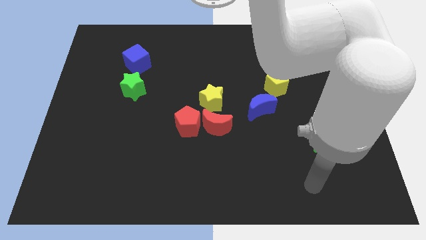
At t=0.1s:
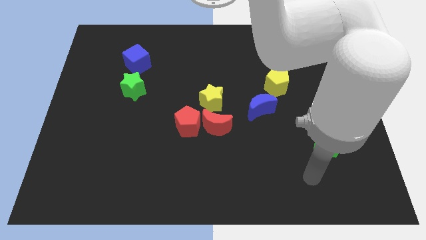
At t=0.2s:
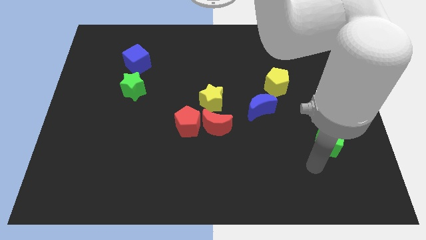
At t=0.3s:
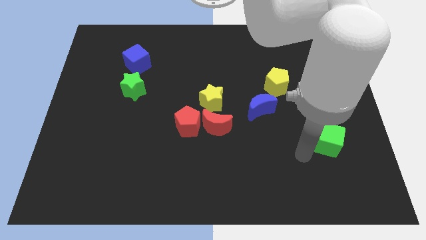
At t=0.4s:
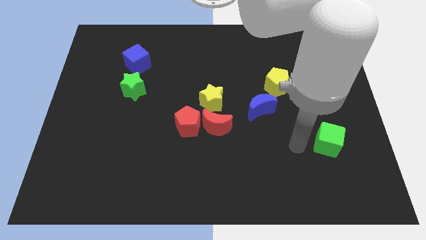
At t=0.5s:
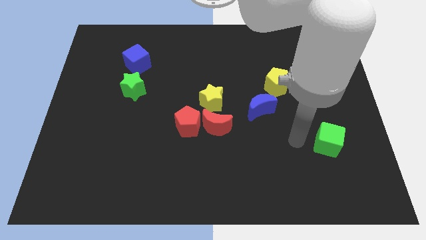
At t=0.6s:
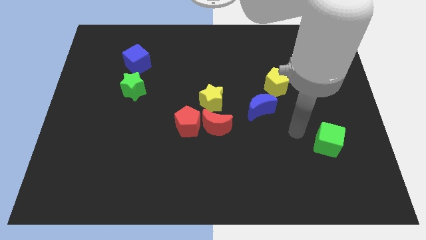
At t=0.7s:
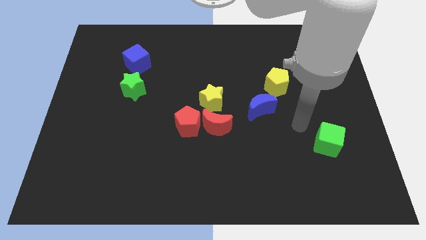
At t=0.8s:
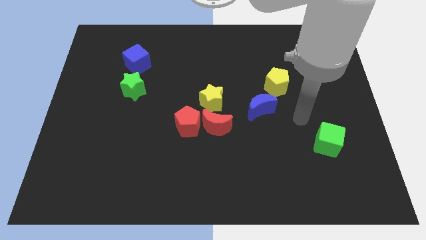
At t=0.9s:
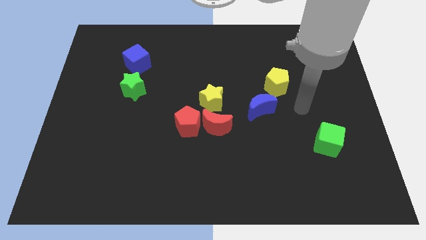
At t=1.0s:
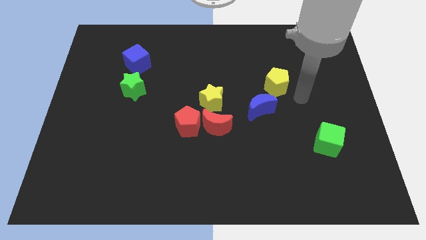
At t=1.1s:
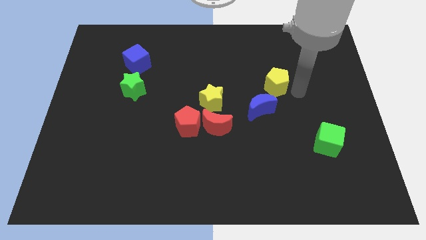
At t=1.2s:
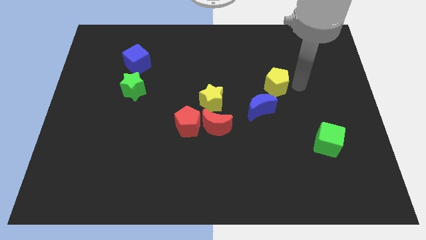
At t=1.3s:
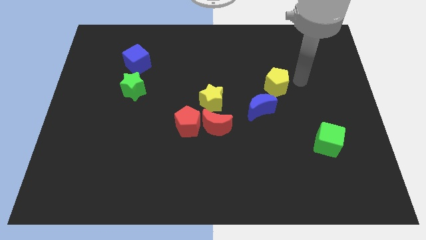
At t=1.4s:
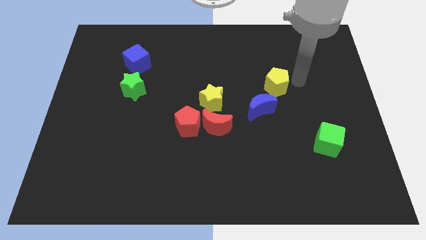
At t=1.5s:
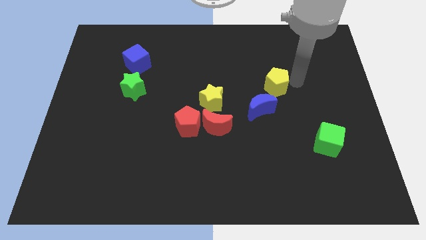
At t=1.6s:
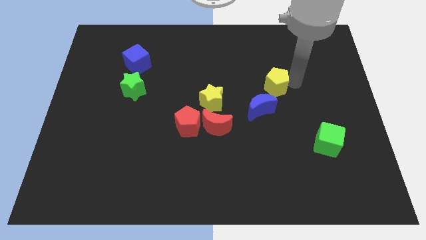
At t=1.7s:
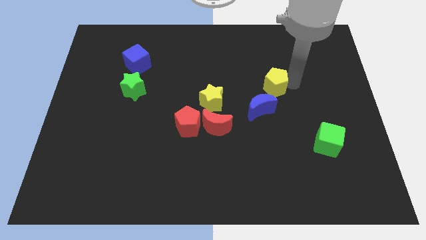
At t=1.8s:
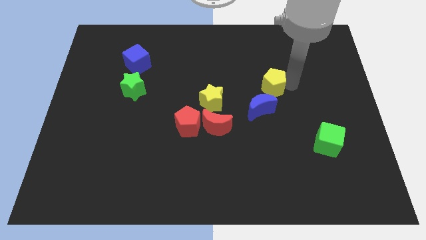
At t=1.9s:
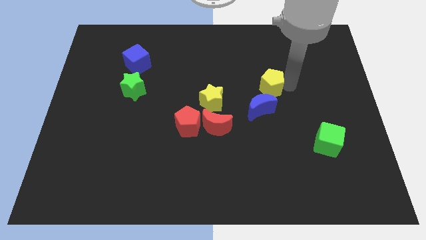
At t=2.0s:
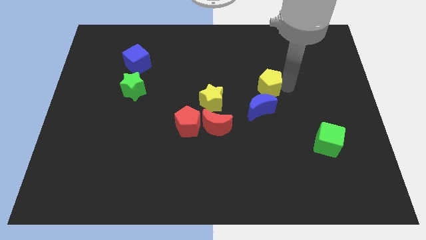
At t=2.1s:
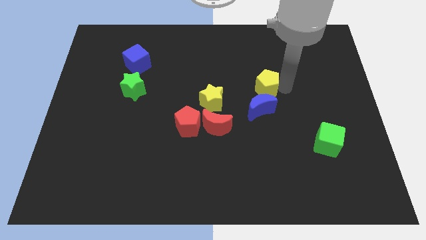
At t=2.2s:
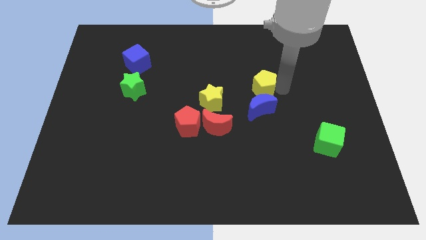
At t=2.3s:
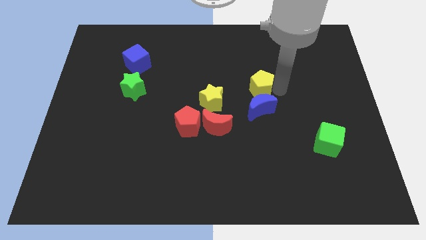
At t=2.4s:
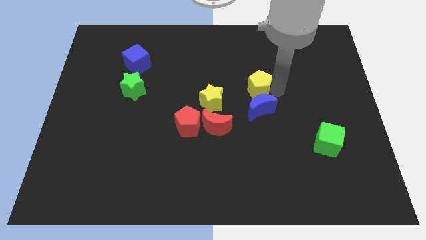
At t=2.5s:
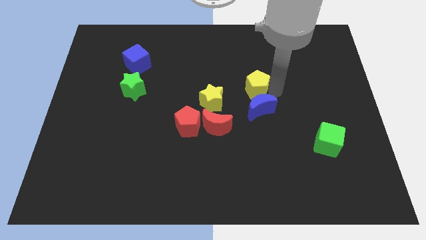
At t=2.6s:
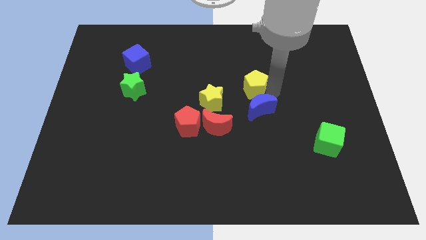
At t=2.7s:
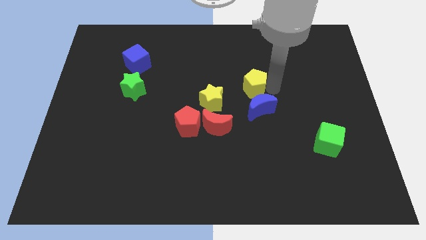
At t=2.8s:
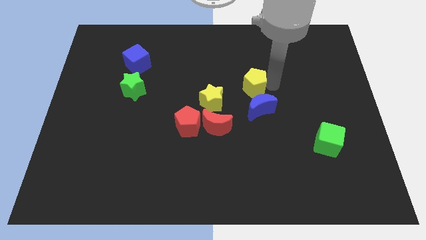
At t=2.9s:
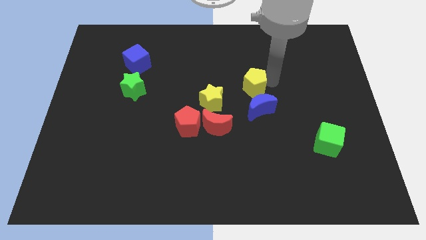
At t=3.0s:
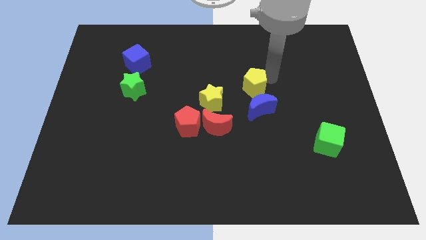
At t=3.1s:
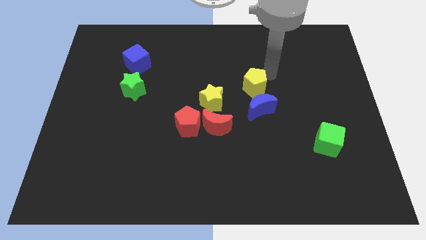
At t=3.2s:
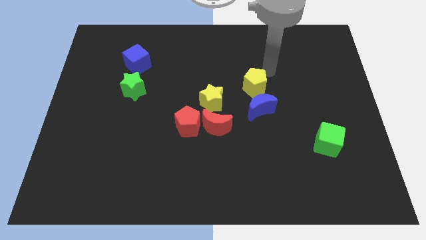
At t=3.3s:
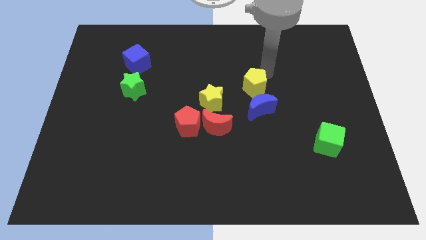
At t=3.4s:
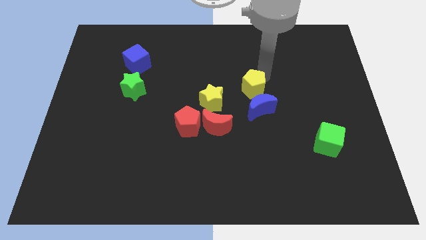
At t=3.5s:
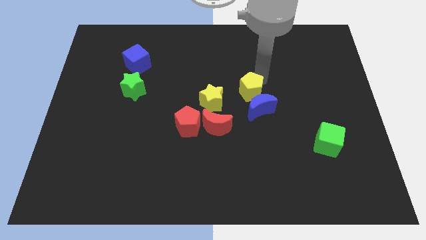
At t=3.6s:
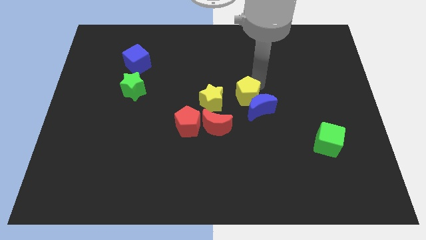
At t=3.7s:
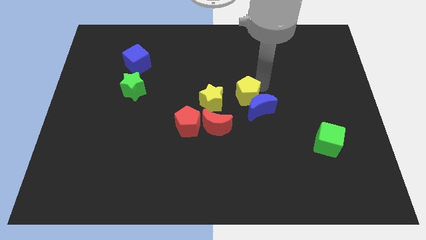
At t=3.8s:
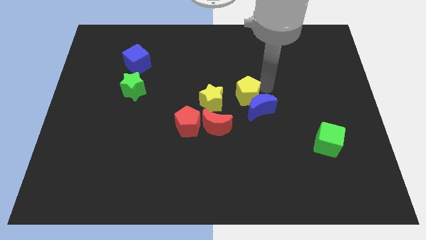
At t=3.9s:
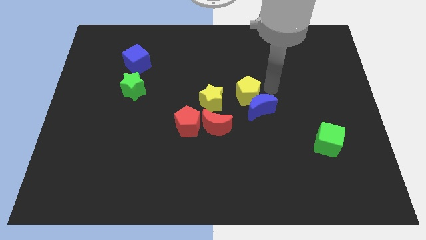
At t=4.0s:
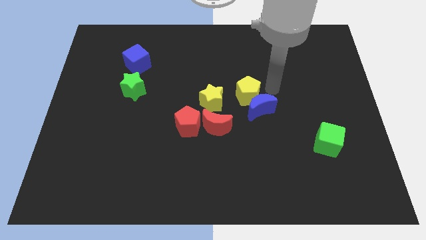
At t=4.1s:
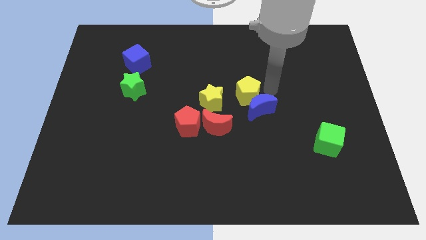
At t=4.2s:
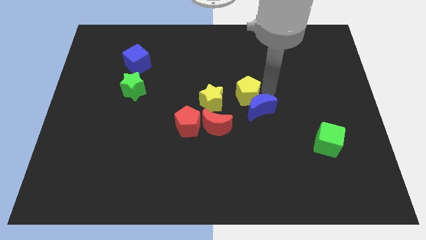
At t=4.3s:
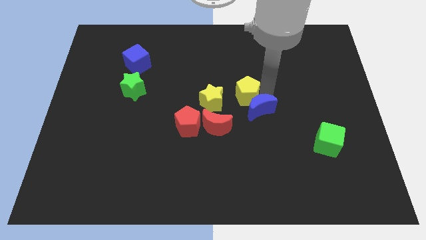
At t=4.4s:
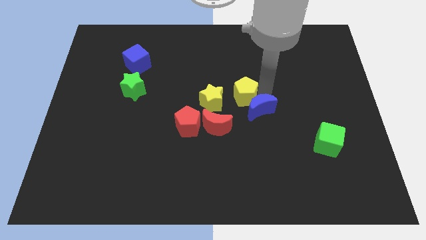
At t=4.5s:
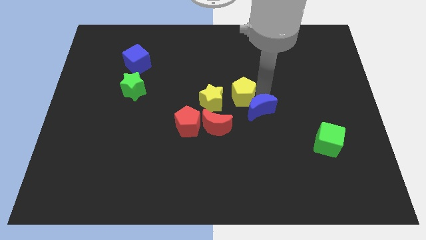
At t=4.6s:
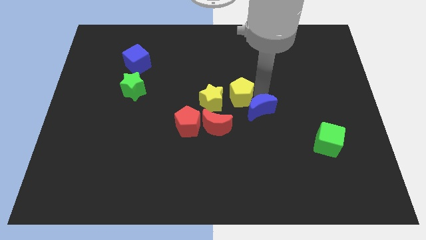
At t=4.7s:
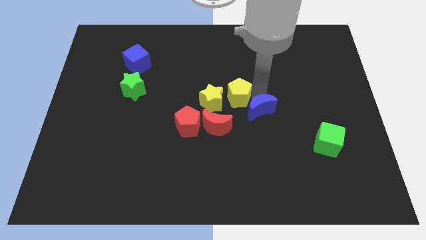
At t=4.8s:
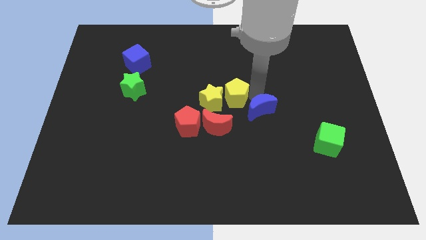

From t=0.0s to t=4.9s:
push the yellow pentagon next to the yellow star

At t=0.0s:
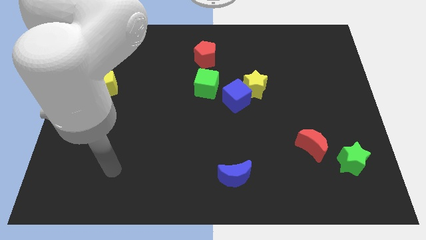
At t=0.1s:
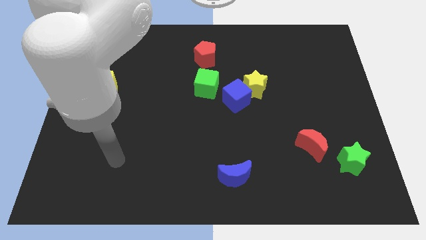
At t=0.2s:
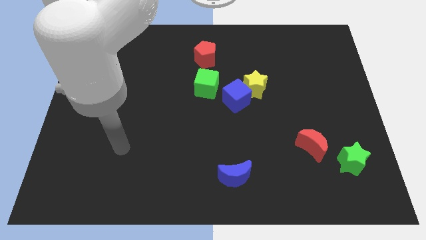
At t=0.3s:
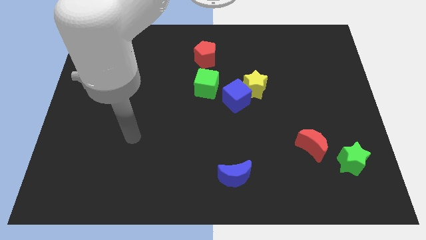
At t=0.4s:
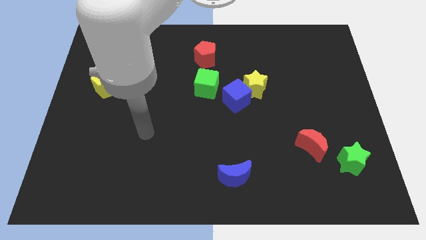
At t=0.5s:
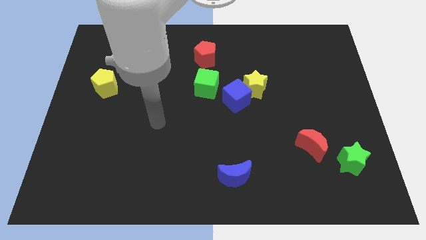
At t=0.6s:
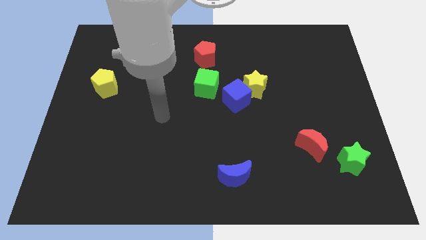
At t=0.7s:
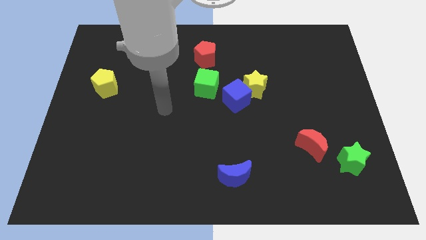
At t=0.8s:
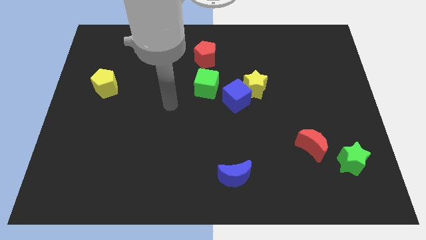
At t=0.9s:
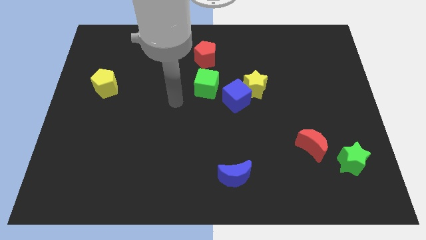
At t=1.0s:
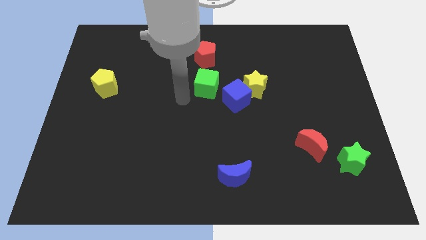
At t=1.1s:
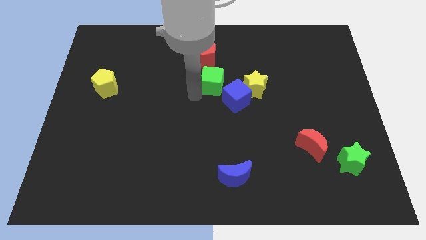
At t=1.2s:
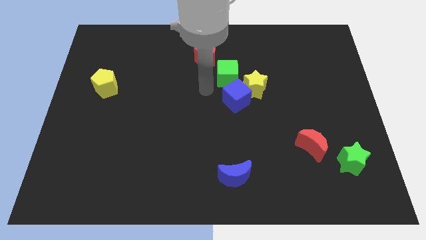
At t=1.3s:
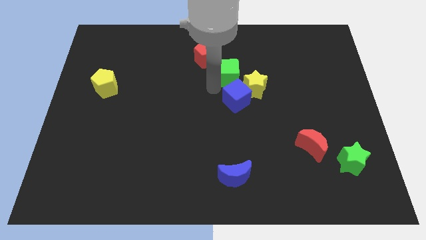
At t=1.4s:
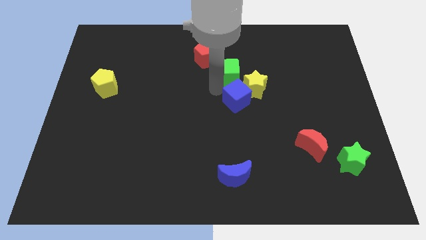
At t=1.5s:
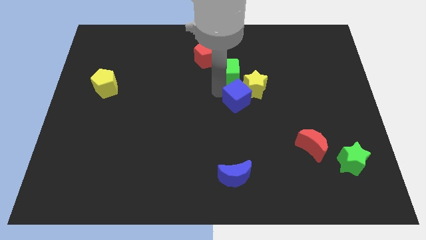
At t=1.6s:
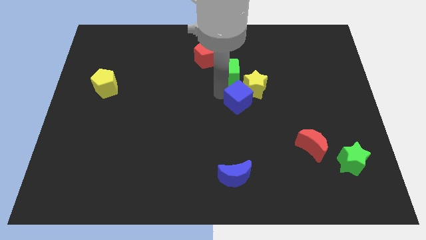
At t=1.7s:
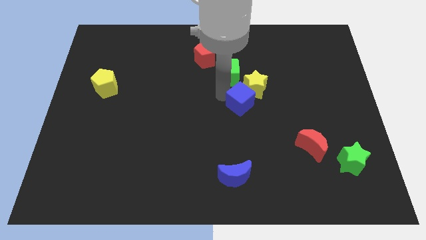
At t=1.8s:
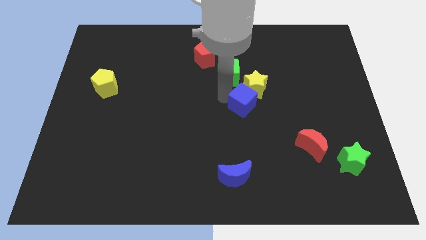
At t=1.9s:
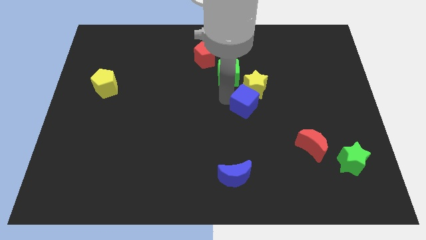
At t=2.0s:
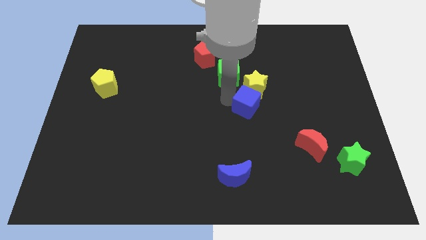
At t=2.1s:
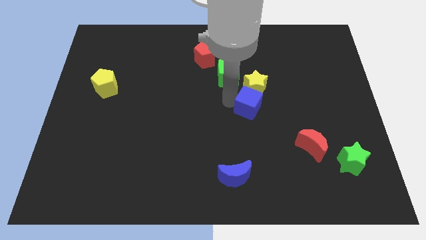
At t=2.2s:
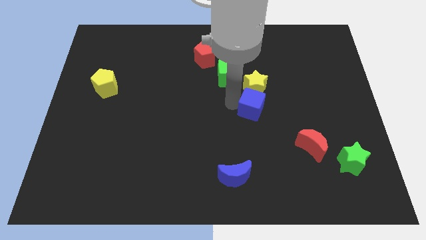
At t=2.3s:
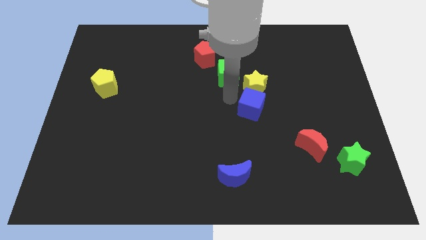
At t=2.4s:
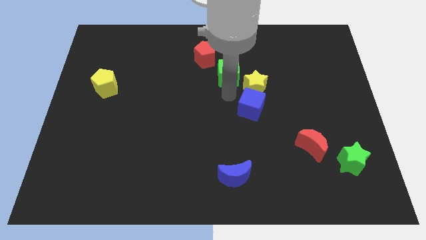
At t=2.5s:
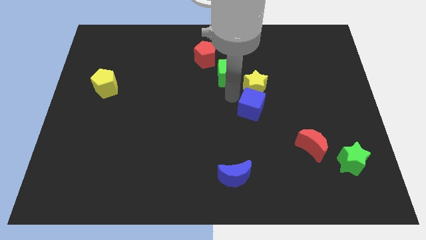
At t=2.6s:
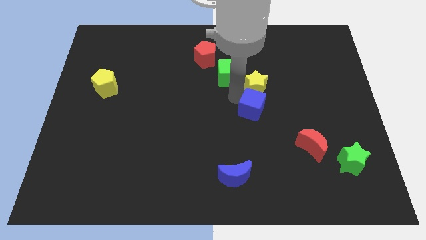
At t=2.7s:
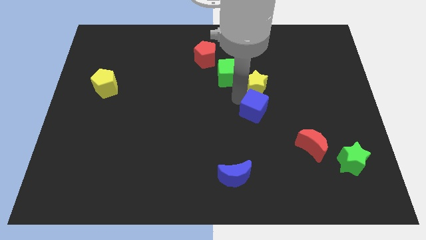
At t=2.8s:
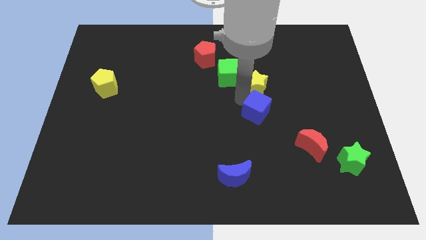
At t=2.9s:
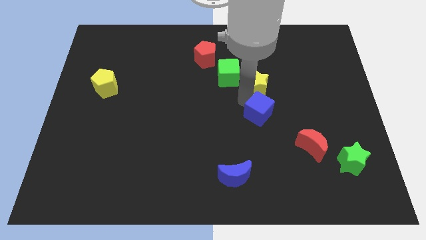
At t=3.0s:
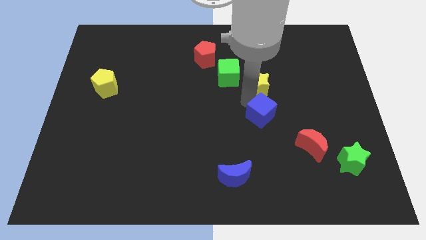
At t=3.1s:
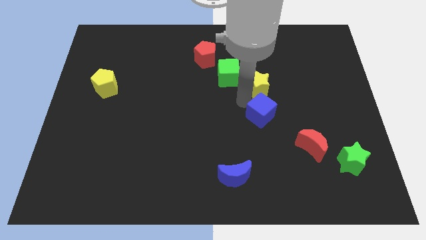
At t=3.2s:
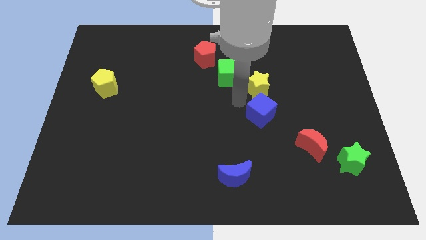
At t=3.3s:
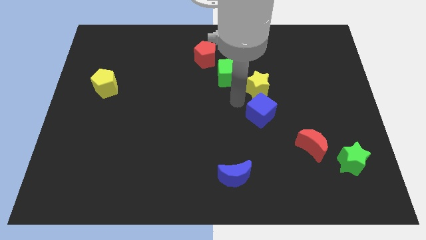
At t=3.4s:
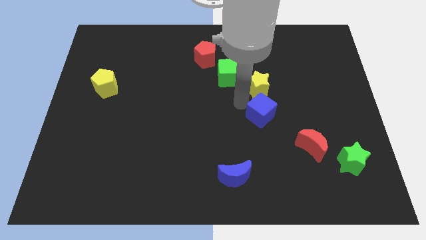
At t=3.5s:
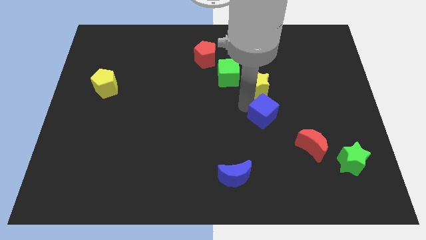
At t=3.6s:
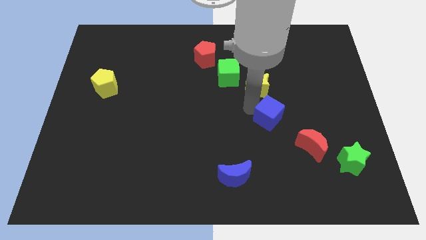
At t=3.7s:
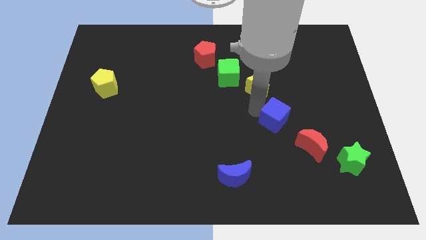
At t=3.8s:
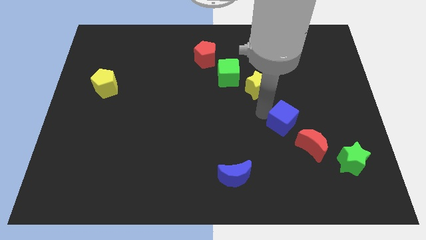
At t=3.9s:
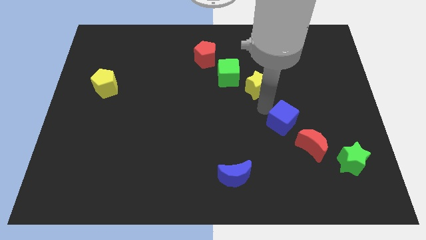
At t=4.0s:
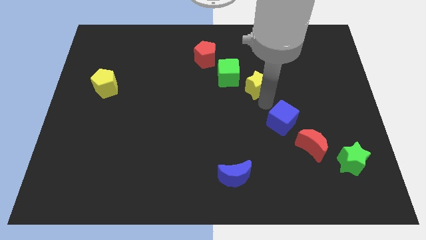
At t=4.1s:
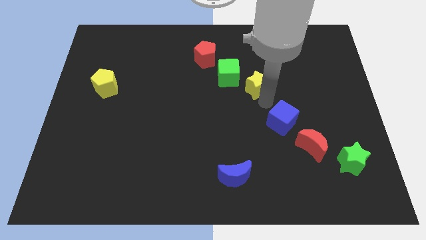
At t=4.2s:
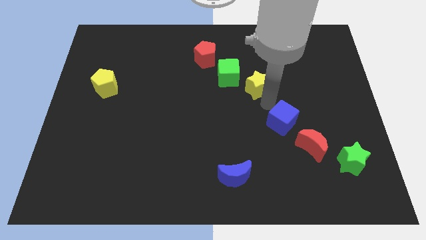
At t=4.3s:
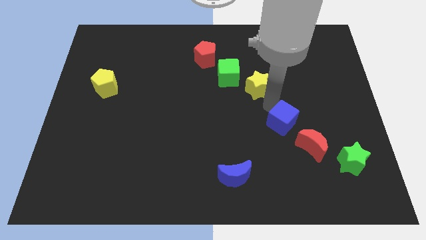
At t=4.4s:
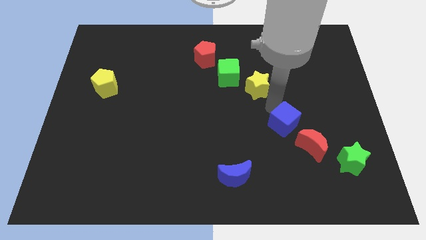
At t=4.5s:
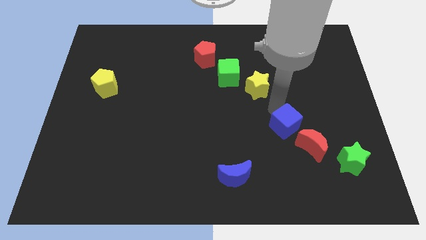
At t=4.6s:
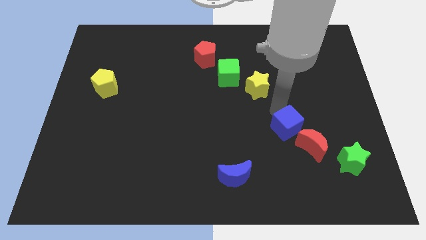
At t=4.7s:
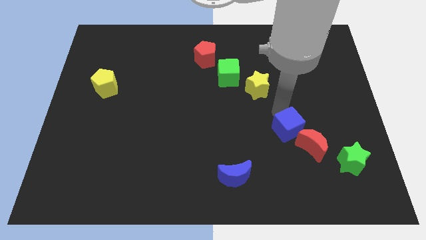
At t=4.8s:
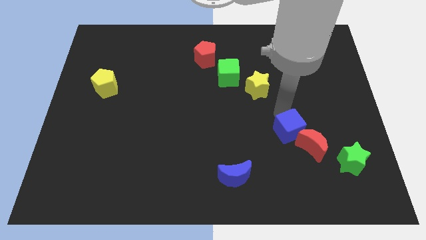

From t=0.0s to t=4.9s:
slide the blue cube towards the red moon
